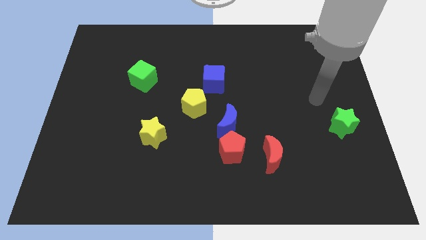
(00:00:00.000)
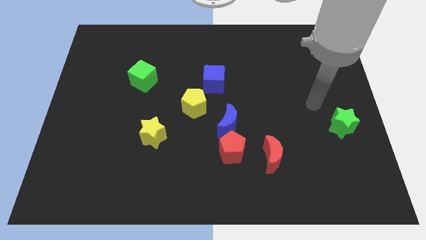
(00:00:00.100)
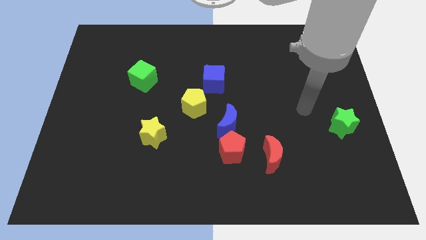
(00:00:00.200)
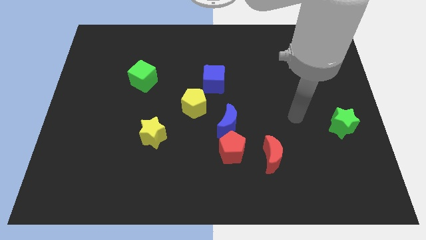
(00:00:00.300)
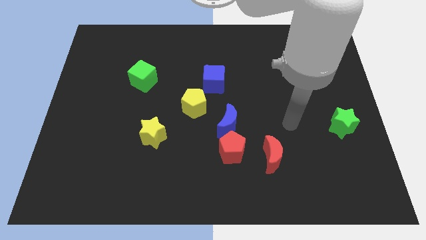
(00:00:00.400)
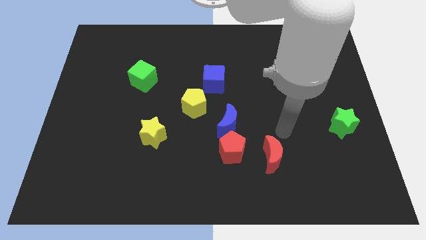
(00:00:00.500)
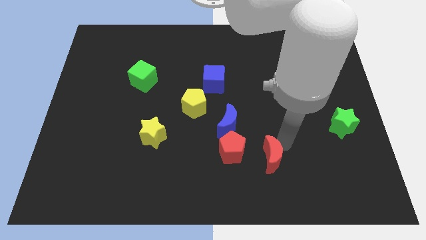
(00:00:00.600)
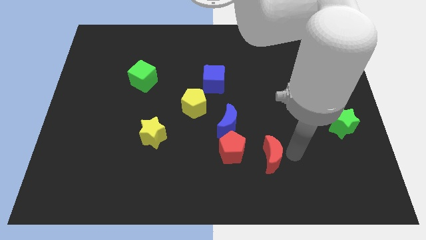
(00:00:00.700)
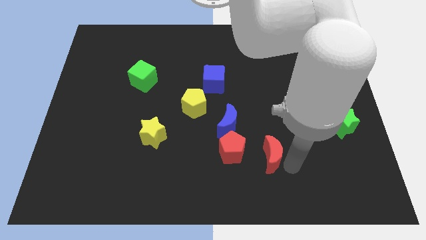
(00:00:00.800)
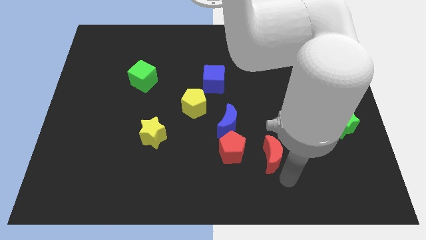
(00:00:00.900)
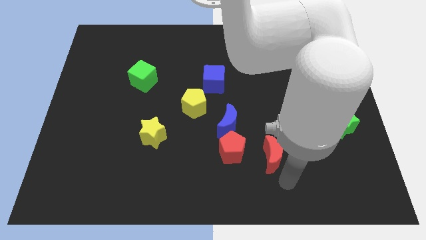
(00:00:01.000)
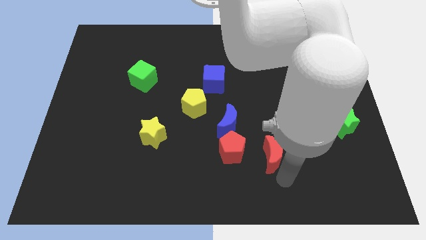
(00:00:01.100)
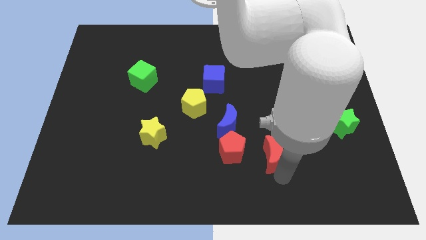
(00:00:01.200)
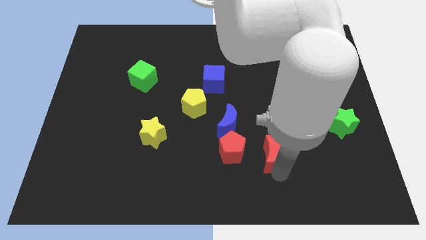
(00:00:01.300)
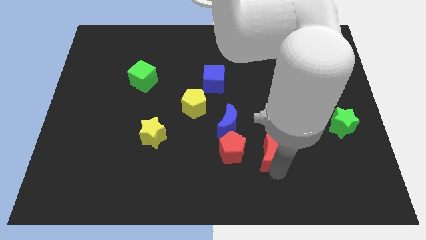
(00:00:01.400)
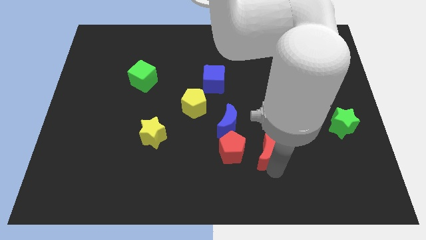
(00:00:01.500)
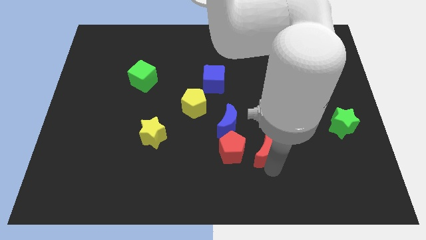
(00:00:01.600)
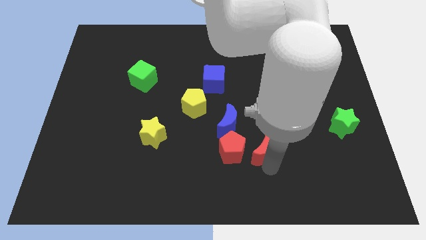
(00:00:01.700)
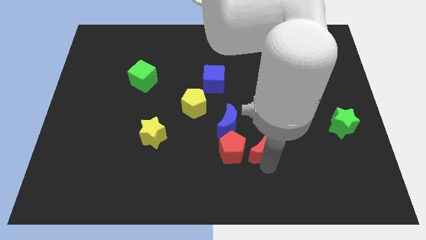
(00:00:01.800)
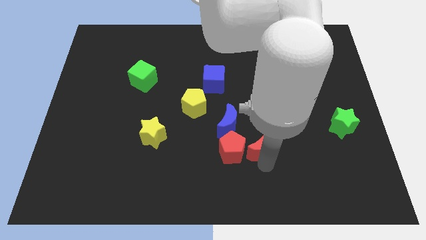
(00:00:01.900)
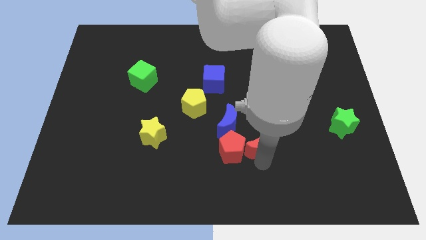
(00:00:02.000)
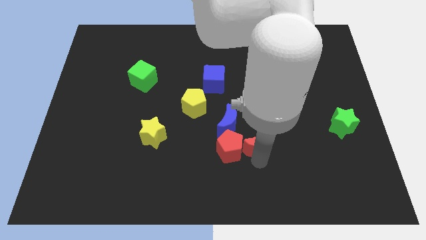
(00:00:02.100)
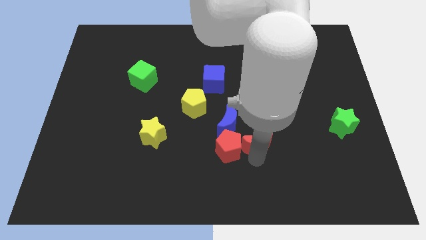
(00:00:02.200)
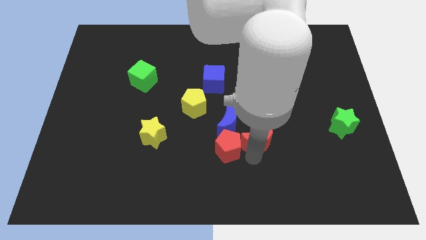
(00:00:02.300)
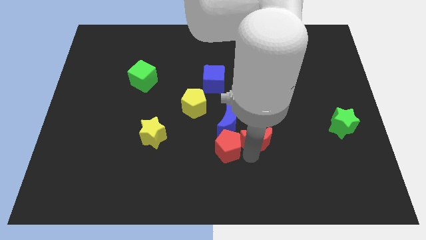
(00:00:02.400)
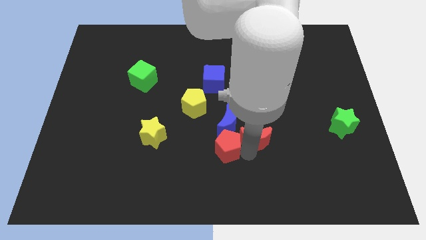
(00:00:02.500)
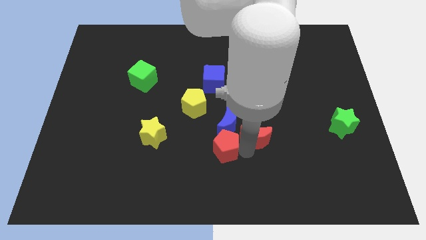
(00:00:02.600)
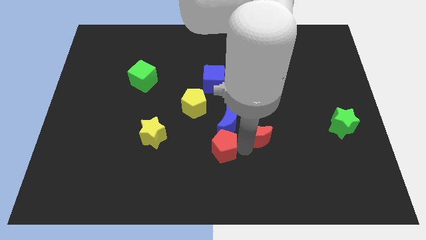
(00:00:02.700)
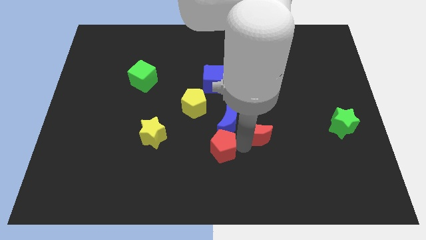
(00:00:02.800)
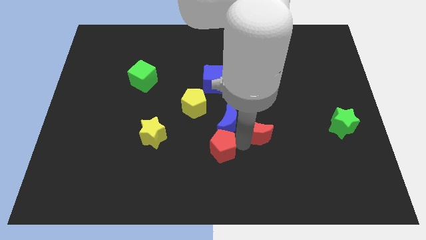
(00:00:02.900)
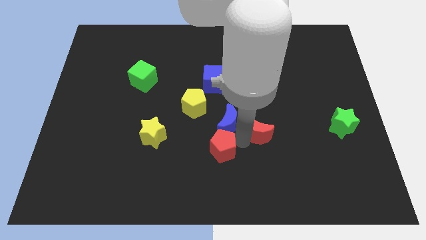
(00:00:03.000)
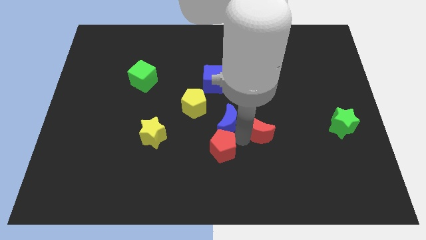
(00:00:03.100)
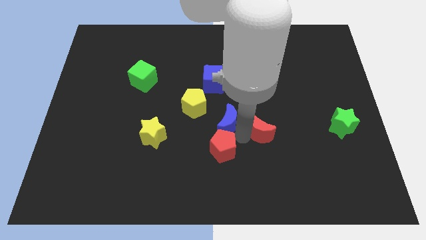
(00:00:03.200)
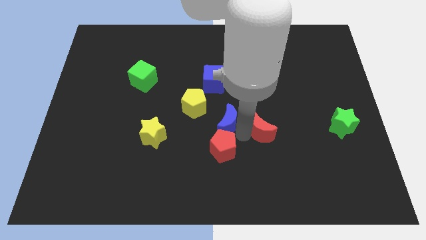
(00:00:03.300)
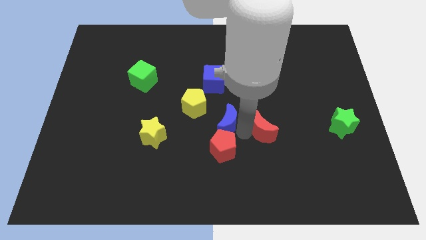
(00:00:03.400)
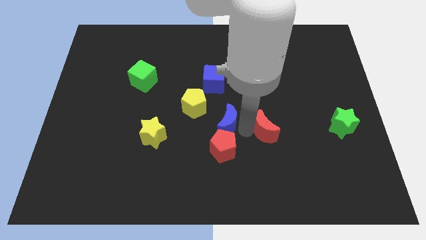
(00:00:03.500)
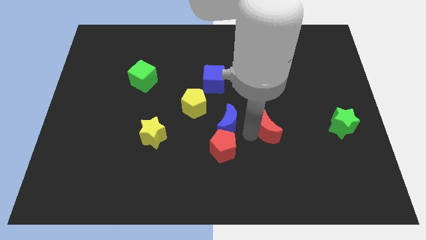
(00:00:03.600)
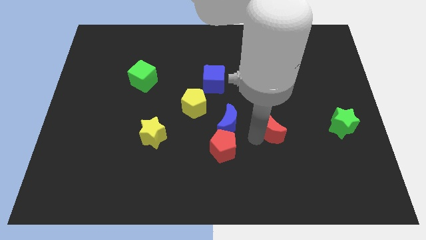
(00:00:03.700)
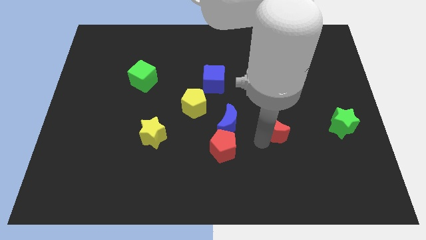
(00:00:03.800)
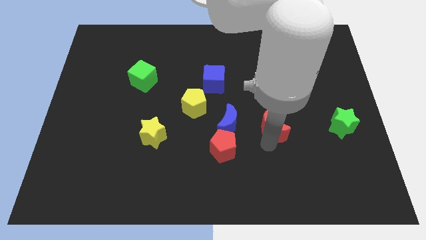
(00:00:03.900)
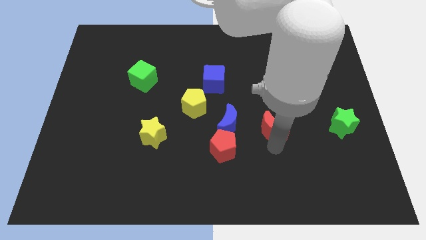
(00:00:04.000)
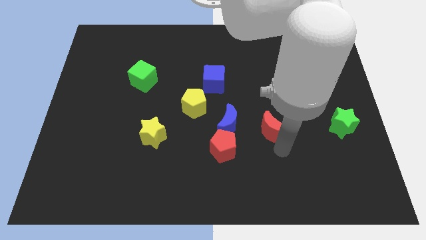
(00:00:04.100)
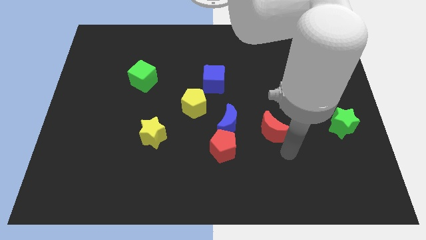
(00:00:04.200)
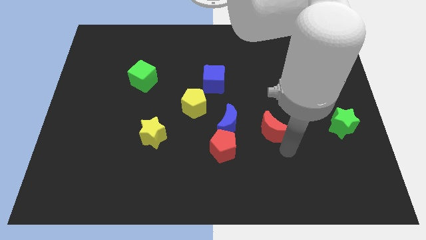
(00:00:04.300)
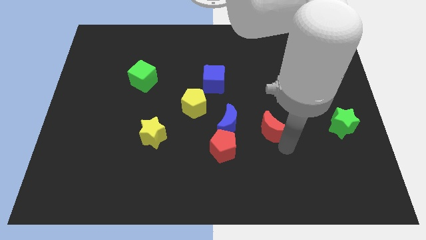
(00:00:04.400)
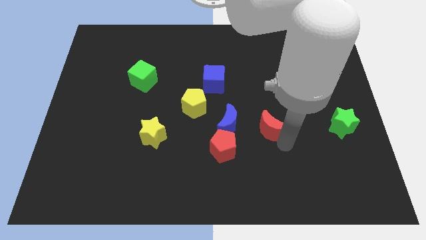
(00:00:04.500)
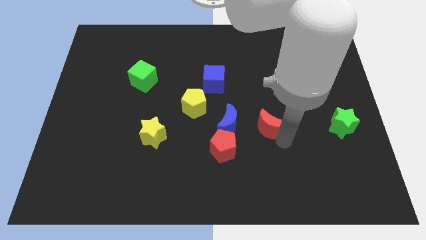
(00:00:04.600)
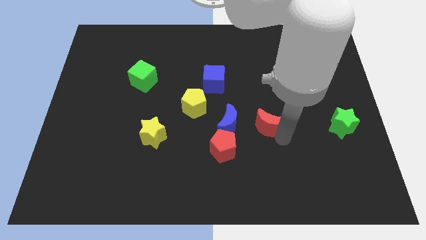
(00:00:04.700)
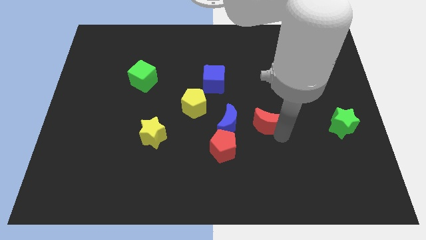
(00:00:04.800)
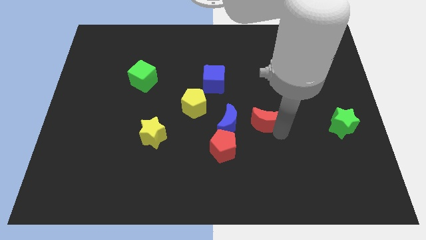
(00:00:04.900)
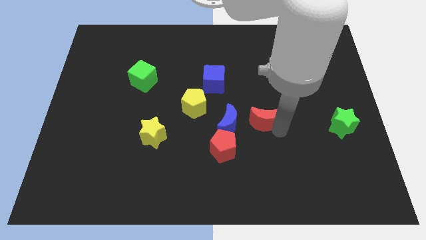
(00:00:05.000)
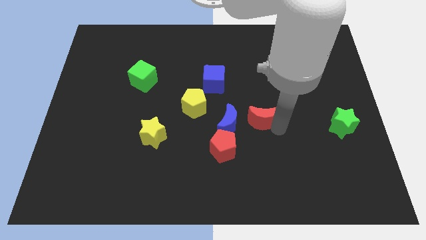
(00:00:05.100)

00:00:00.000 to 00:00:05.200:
slide the red moon to the middle of the board

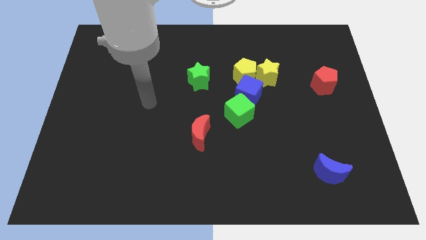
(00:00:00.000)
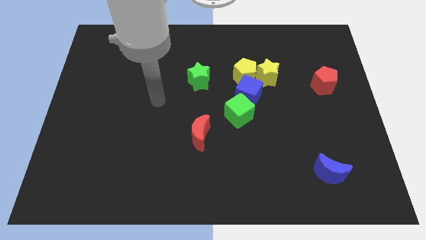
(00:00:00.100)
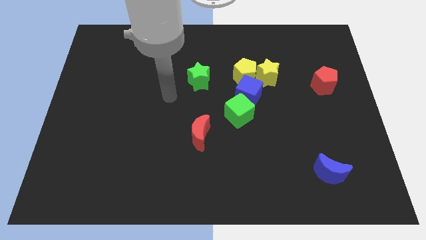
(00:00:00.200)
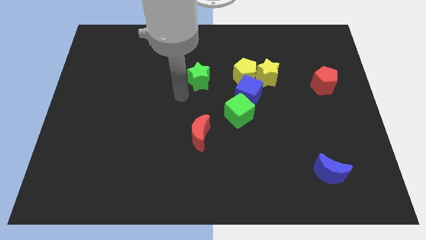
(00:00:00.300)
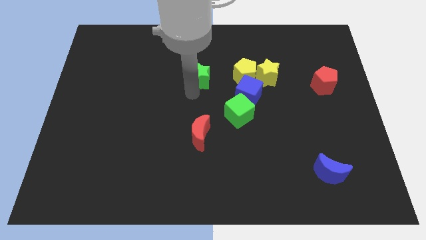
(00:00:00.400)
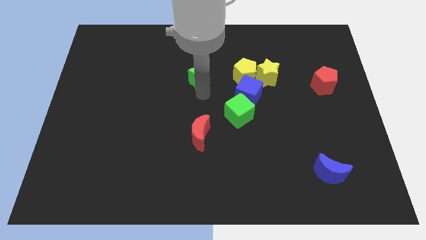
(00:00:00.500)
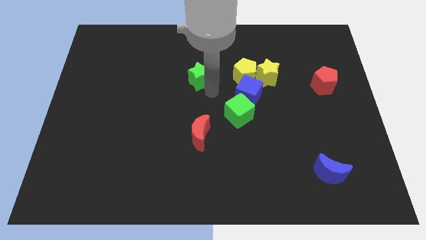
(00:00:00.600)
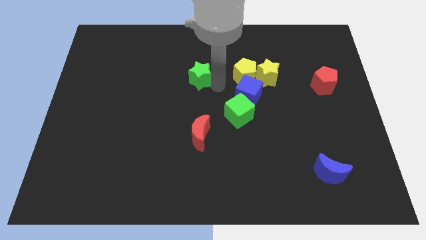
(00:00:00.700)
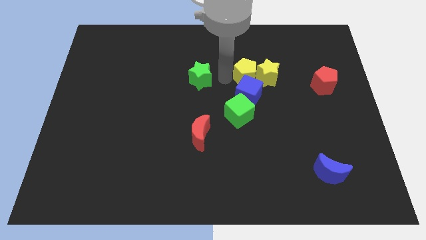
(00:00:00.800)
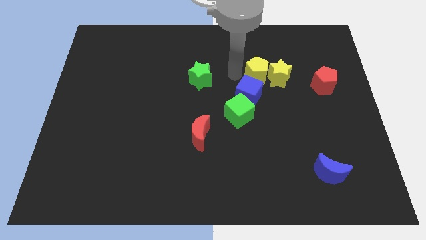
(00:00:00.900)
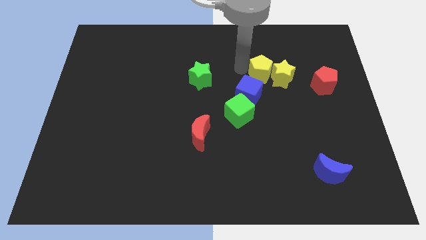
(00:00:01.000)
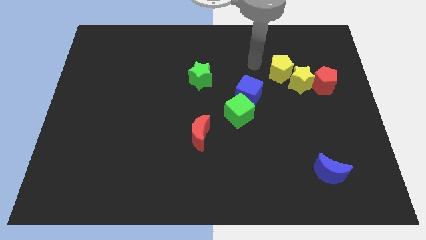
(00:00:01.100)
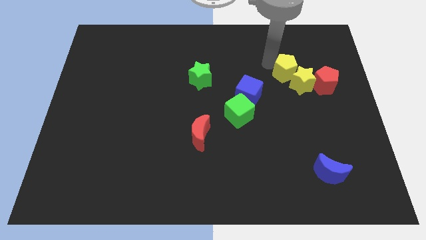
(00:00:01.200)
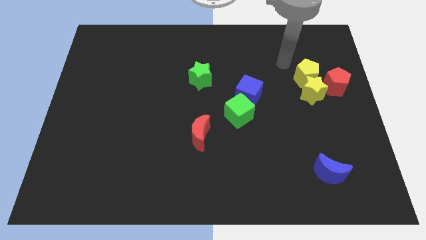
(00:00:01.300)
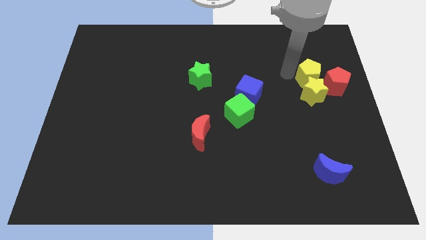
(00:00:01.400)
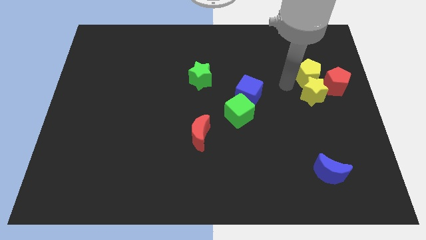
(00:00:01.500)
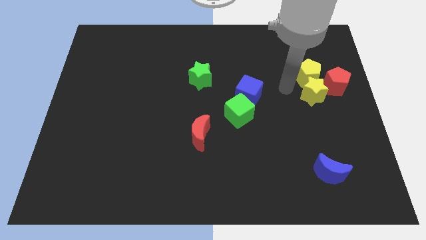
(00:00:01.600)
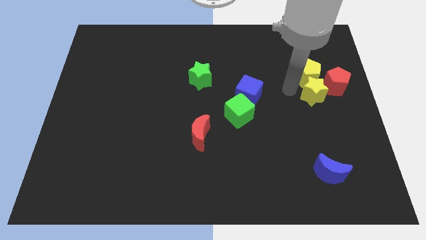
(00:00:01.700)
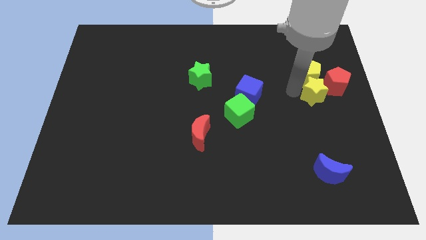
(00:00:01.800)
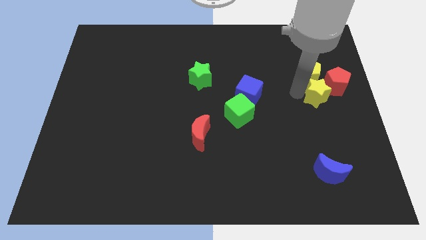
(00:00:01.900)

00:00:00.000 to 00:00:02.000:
move the yellow star to the right side of the board

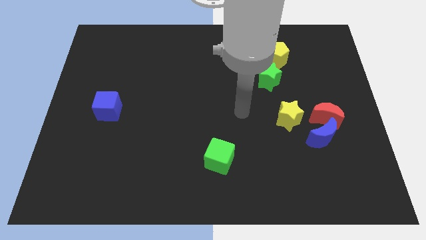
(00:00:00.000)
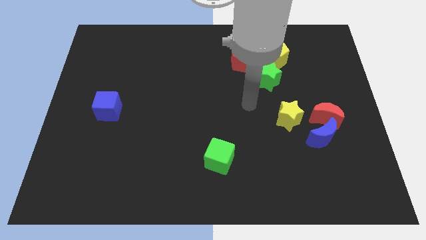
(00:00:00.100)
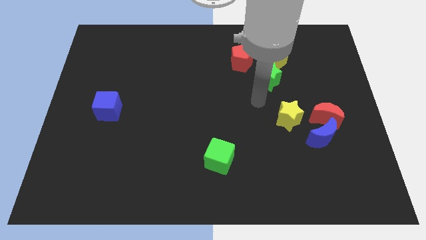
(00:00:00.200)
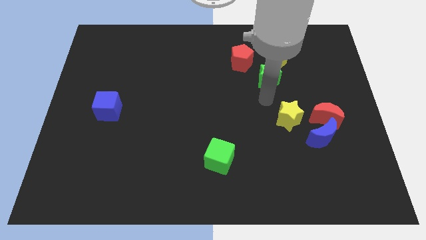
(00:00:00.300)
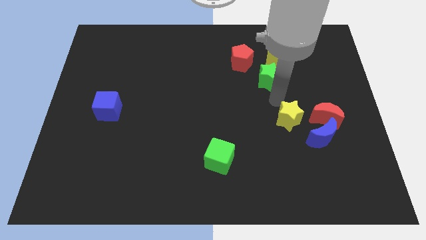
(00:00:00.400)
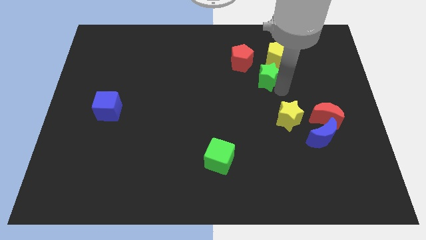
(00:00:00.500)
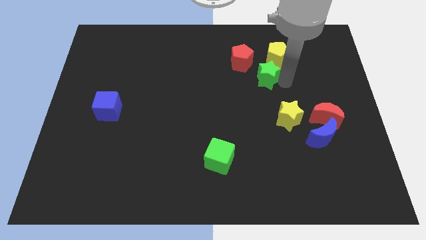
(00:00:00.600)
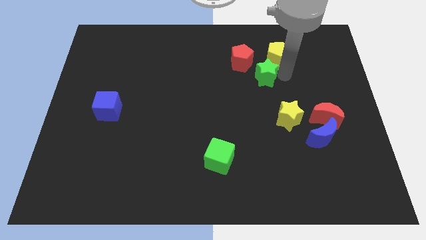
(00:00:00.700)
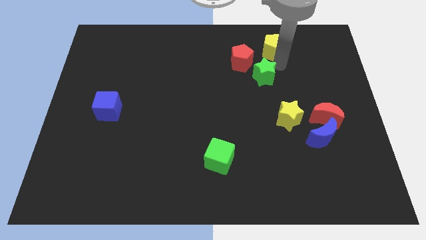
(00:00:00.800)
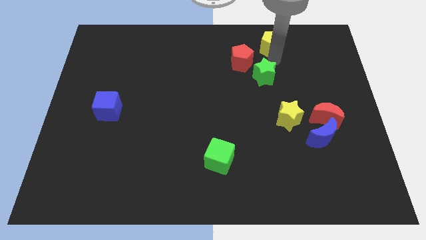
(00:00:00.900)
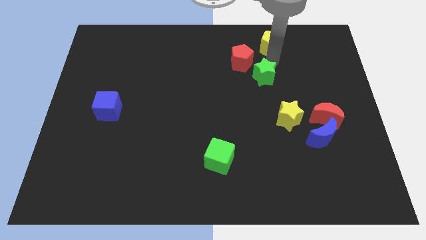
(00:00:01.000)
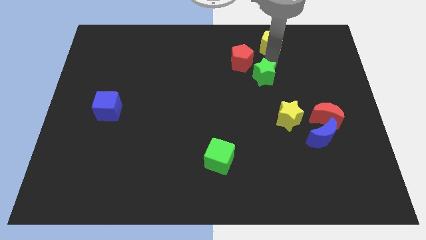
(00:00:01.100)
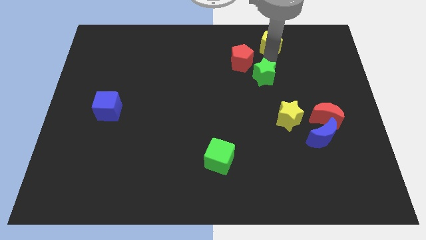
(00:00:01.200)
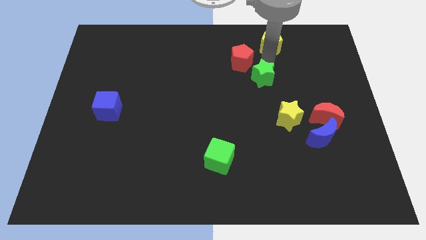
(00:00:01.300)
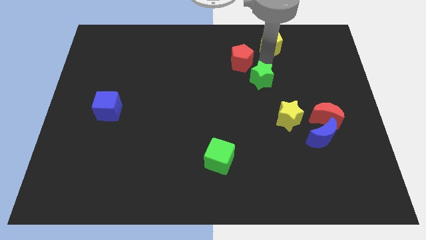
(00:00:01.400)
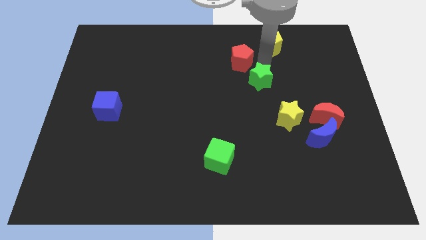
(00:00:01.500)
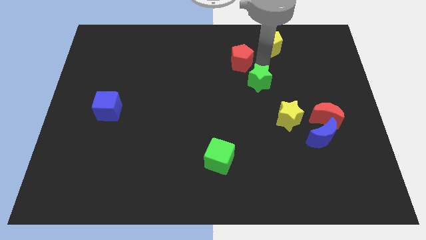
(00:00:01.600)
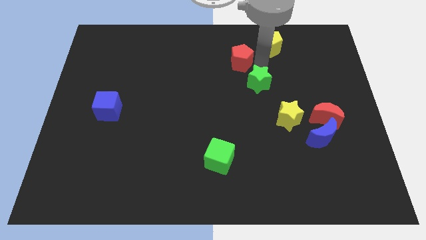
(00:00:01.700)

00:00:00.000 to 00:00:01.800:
slide the green star to the center
